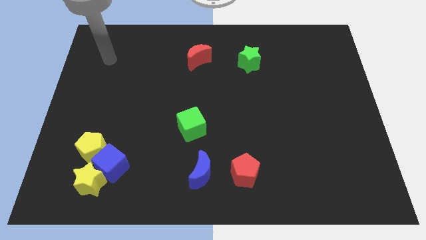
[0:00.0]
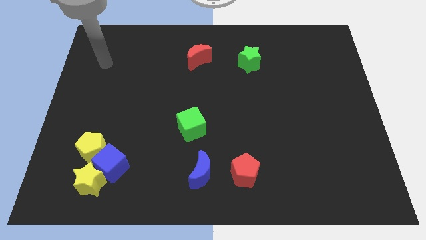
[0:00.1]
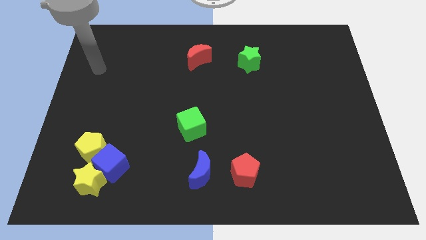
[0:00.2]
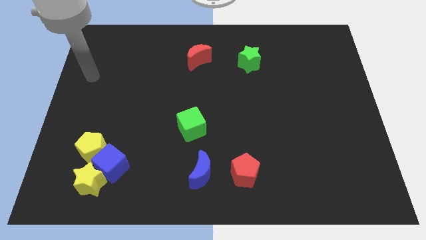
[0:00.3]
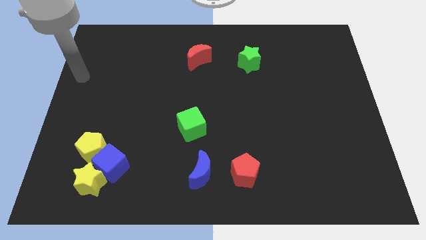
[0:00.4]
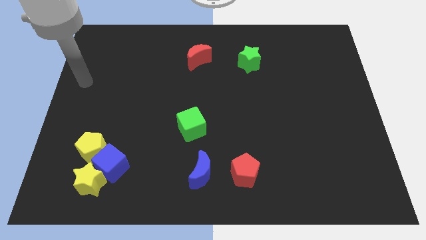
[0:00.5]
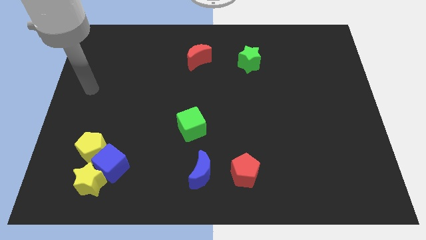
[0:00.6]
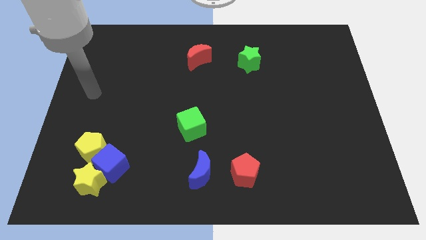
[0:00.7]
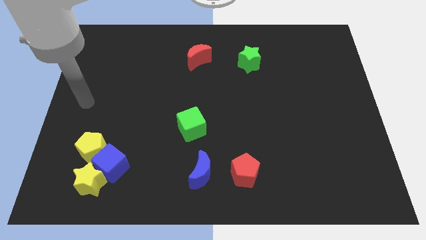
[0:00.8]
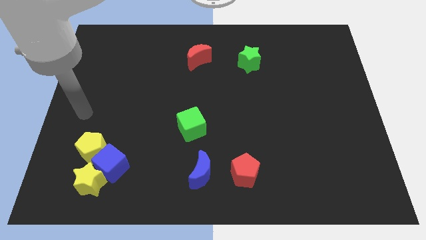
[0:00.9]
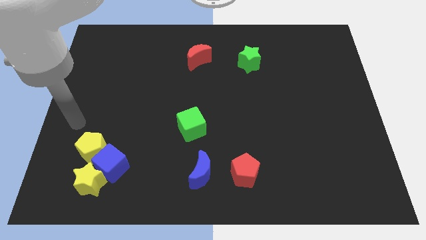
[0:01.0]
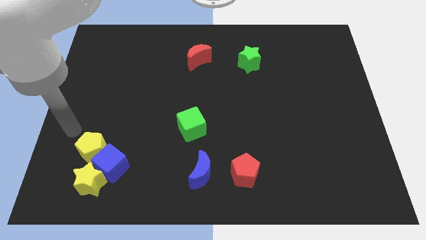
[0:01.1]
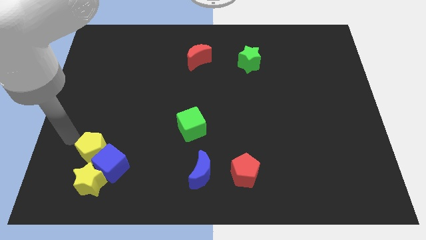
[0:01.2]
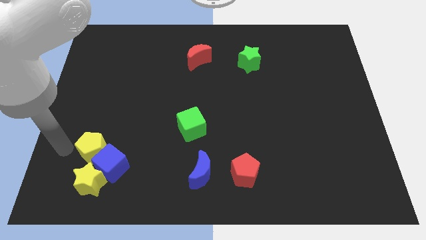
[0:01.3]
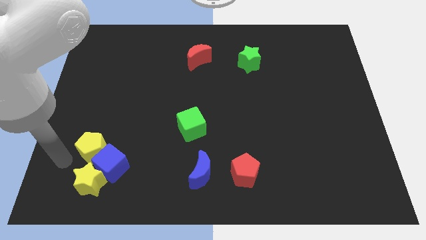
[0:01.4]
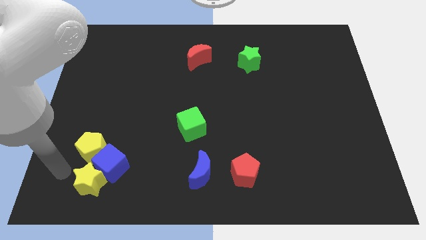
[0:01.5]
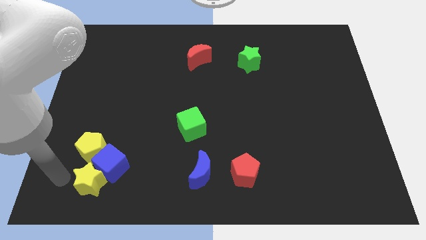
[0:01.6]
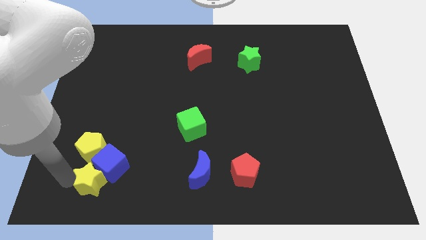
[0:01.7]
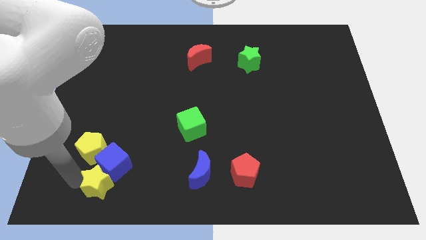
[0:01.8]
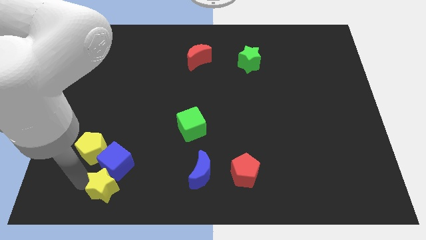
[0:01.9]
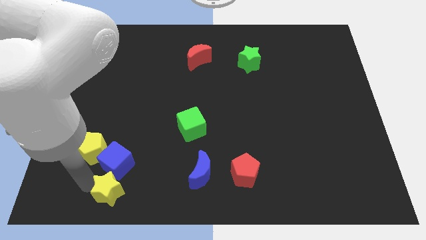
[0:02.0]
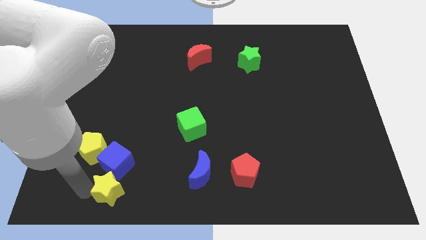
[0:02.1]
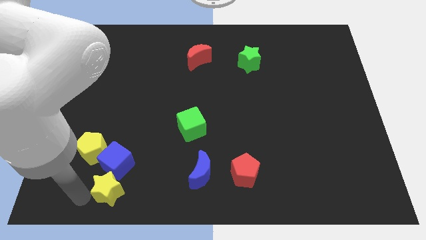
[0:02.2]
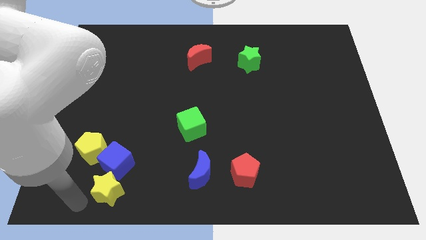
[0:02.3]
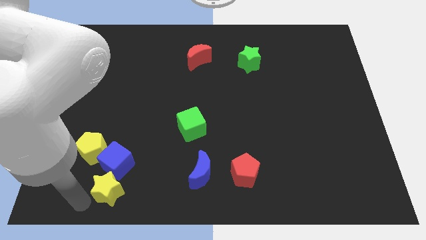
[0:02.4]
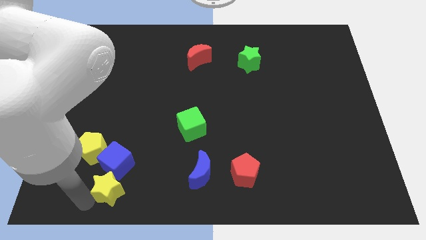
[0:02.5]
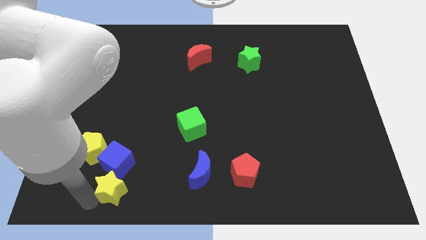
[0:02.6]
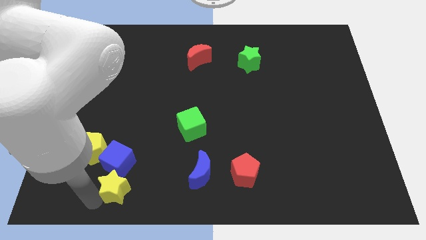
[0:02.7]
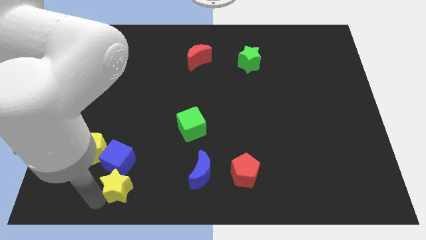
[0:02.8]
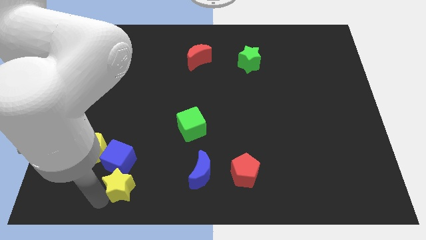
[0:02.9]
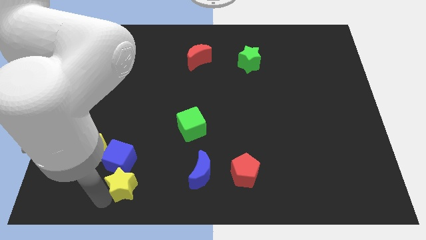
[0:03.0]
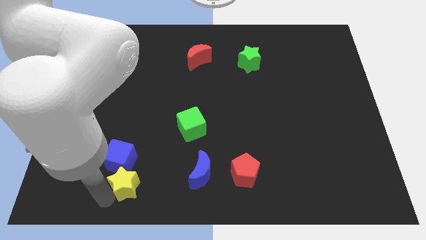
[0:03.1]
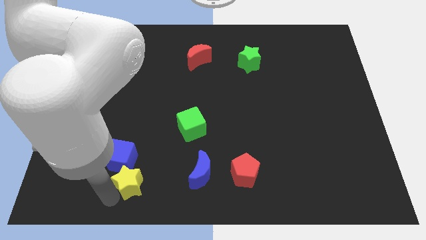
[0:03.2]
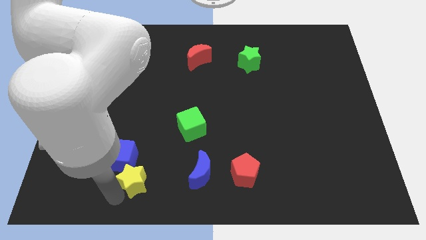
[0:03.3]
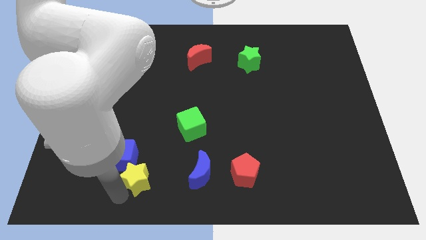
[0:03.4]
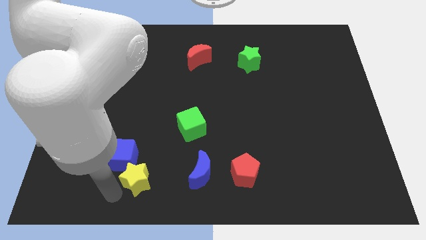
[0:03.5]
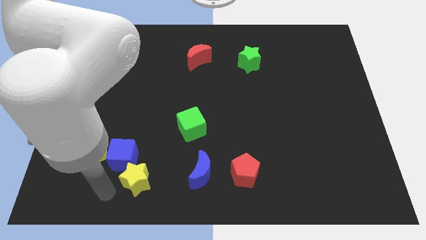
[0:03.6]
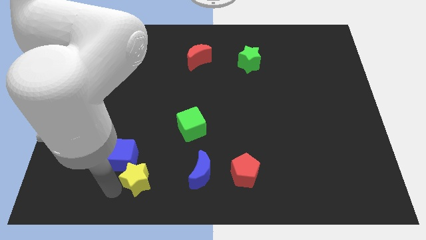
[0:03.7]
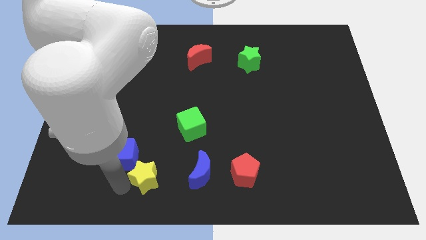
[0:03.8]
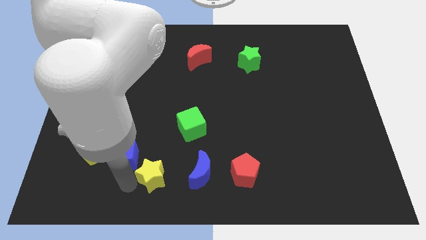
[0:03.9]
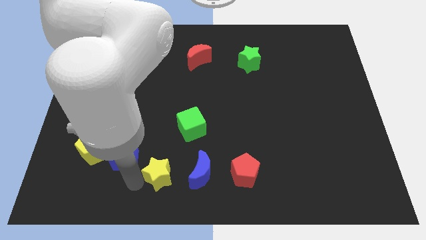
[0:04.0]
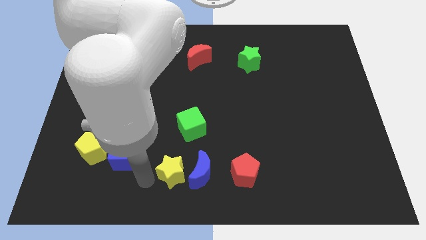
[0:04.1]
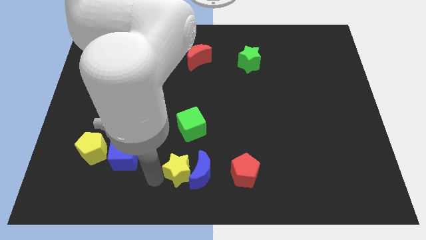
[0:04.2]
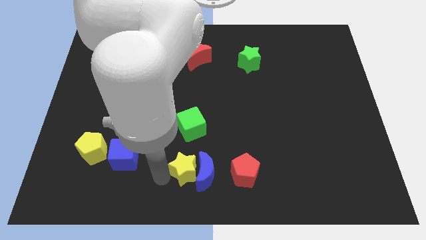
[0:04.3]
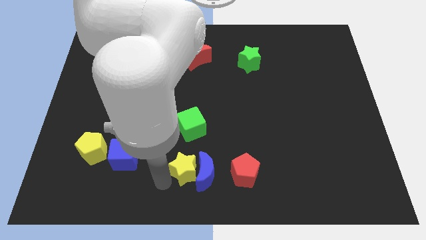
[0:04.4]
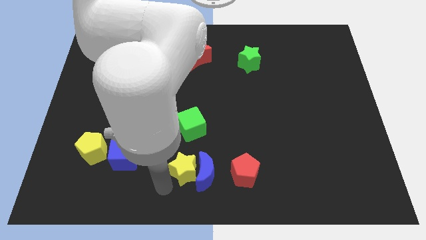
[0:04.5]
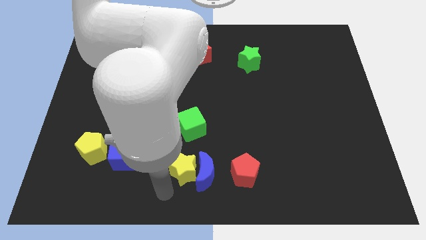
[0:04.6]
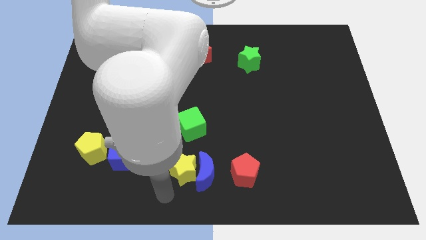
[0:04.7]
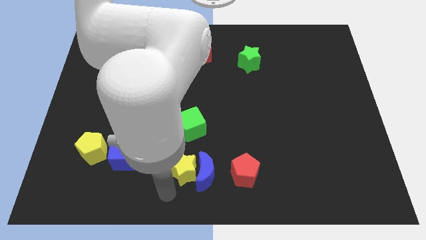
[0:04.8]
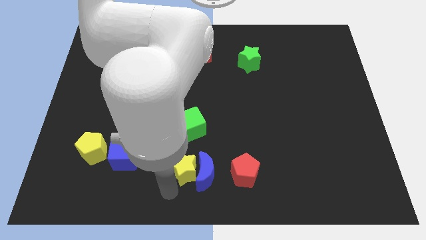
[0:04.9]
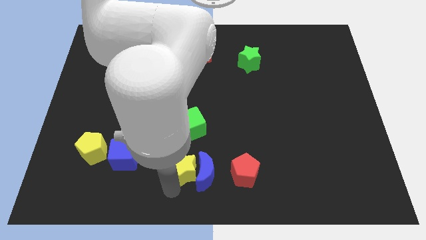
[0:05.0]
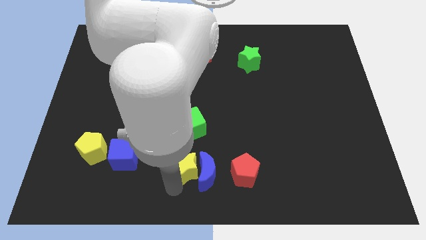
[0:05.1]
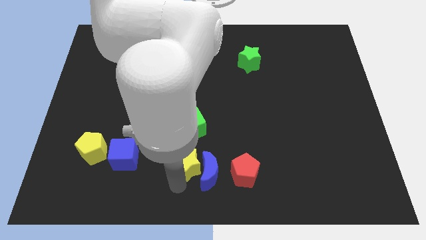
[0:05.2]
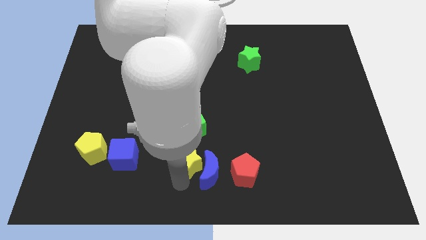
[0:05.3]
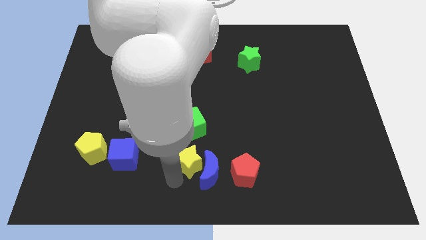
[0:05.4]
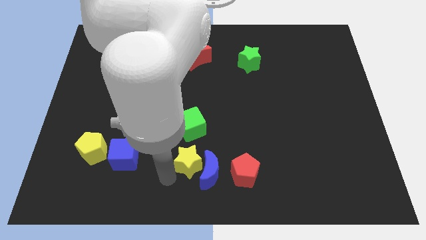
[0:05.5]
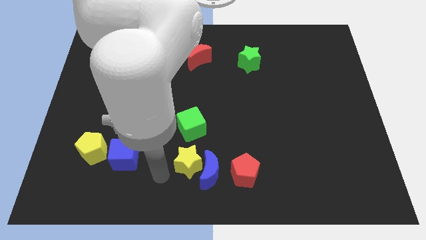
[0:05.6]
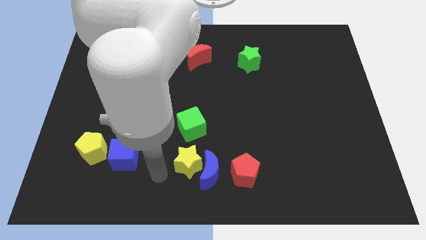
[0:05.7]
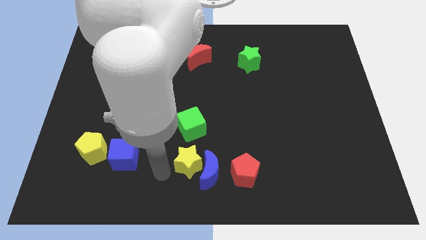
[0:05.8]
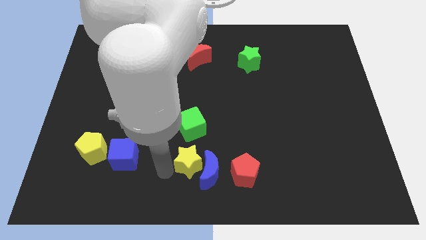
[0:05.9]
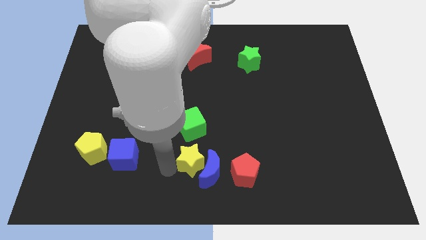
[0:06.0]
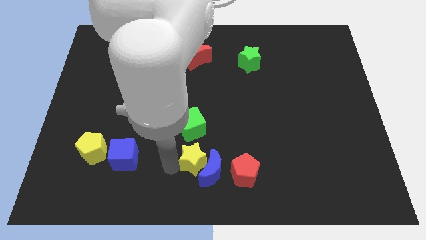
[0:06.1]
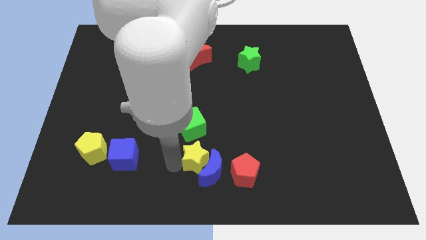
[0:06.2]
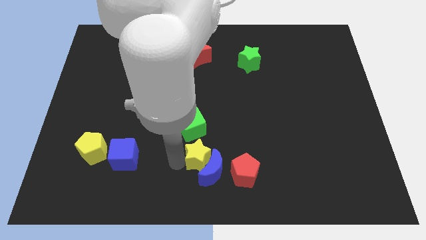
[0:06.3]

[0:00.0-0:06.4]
move the yellow star to the top left side of the red pentagon

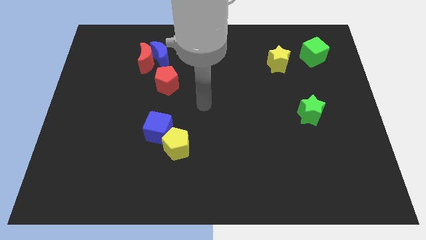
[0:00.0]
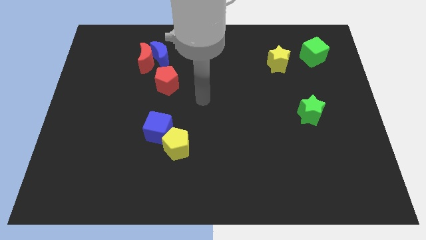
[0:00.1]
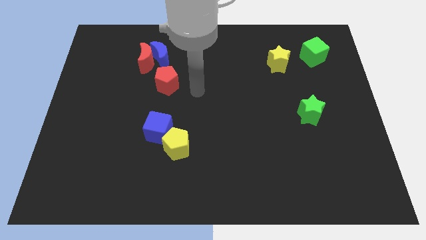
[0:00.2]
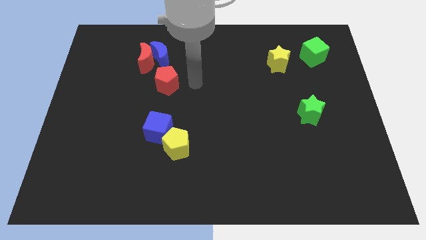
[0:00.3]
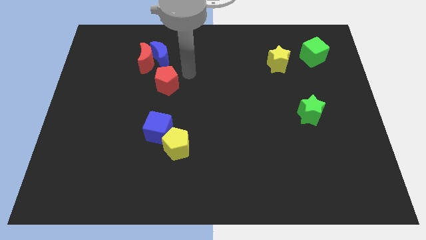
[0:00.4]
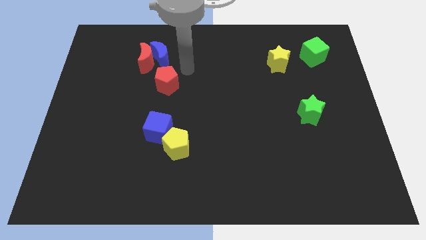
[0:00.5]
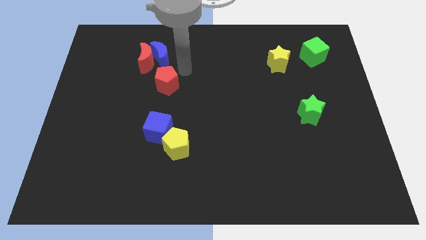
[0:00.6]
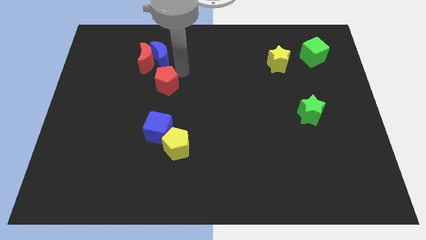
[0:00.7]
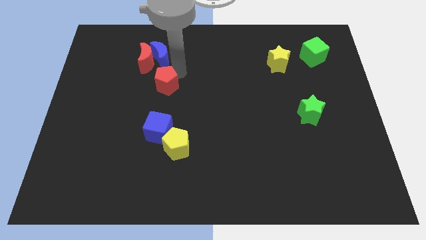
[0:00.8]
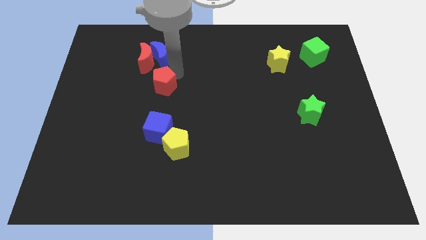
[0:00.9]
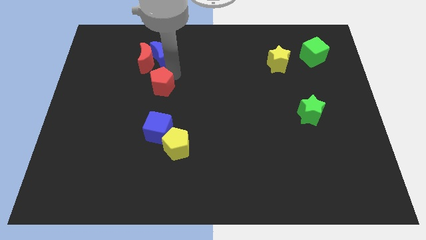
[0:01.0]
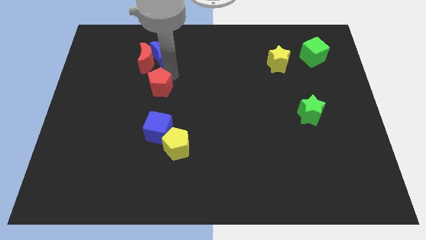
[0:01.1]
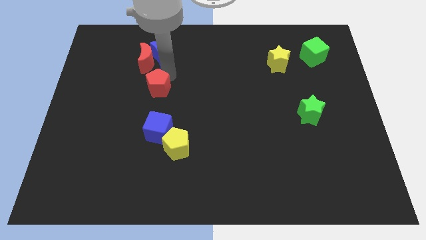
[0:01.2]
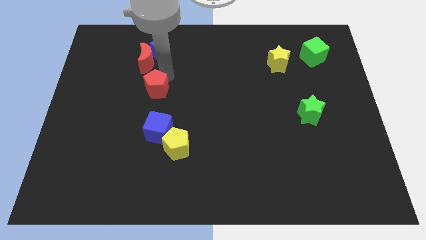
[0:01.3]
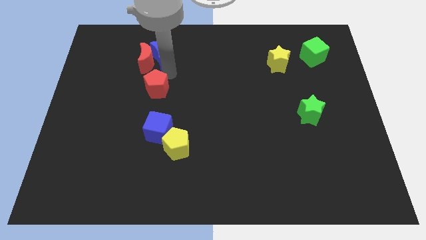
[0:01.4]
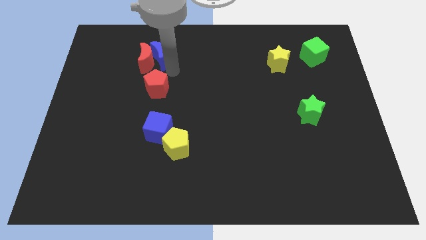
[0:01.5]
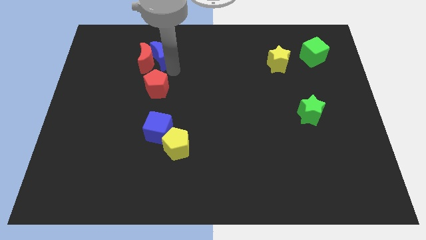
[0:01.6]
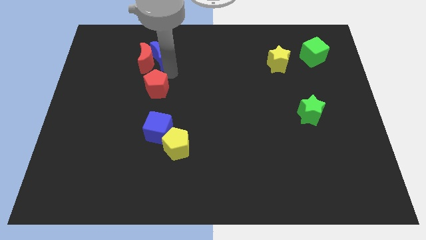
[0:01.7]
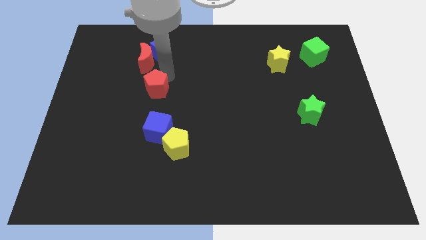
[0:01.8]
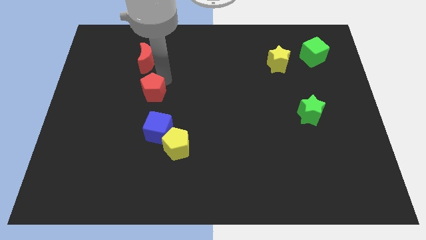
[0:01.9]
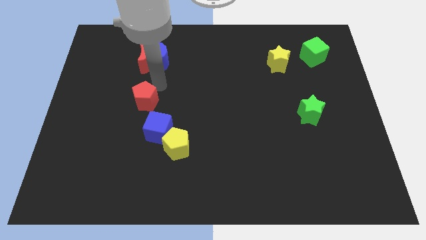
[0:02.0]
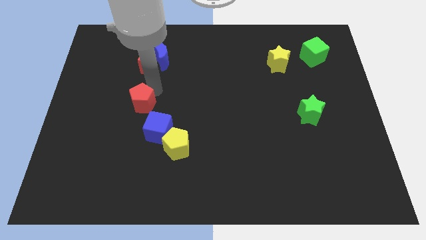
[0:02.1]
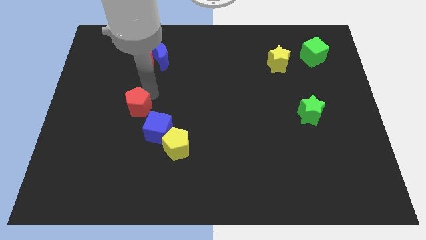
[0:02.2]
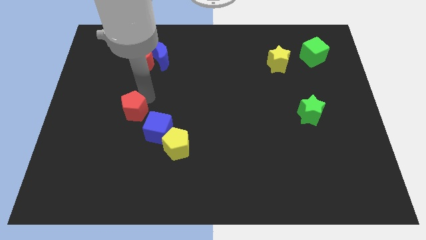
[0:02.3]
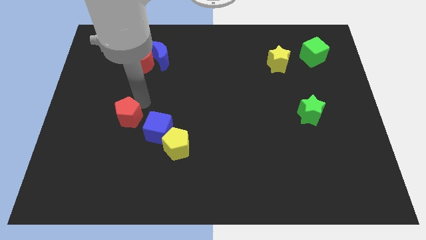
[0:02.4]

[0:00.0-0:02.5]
put the red pentagon to the left side of the blue cube
